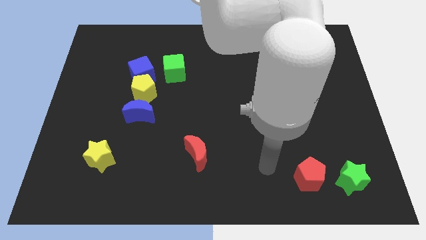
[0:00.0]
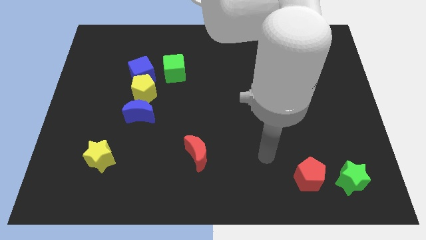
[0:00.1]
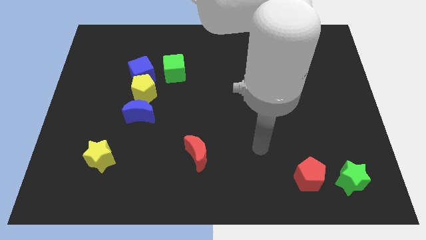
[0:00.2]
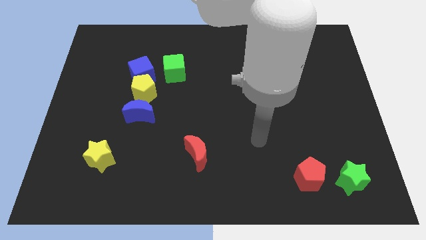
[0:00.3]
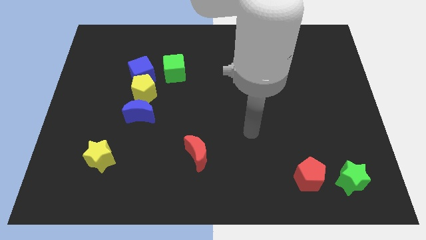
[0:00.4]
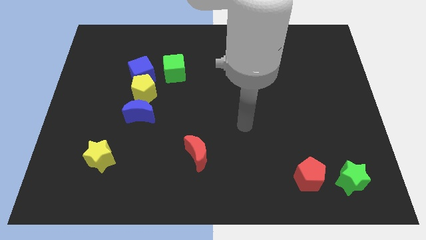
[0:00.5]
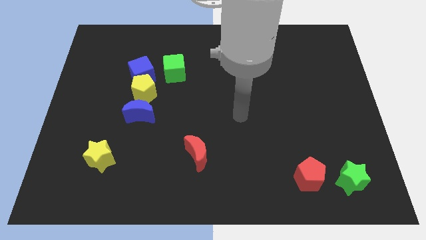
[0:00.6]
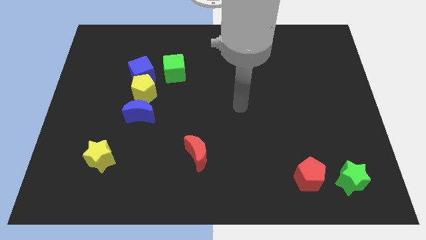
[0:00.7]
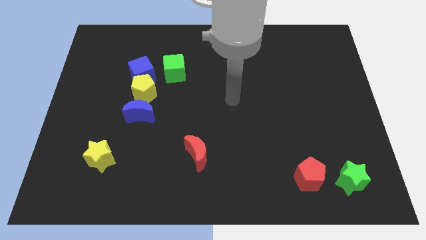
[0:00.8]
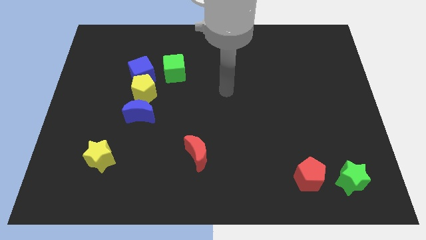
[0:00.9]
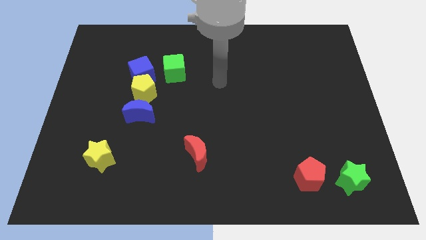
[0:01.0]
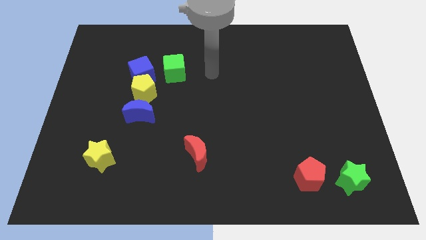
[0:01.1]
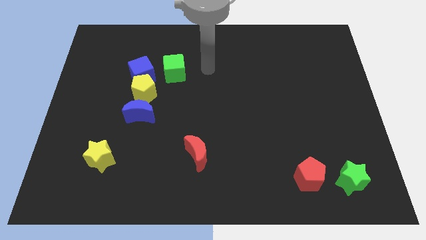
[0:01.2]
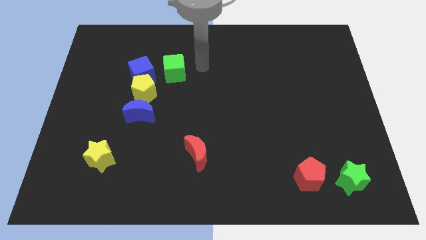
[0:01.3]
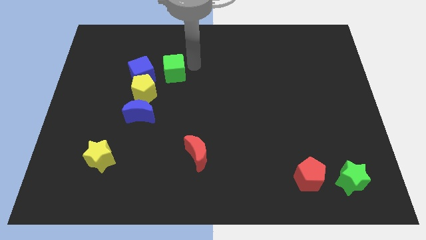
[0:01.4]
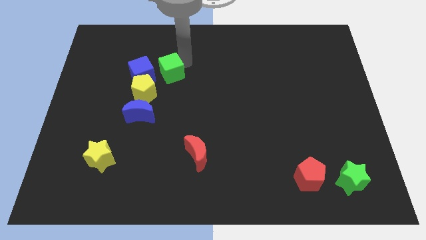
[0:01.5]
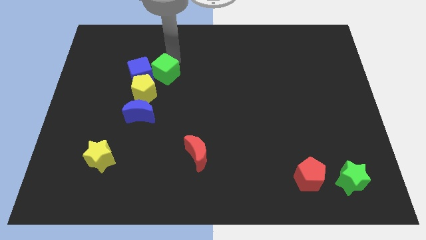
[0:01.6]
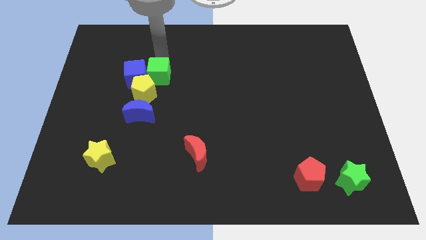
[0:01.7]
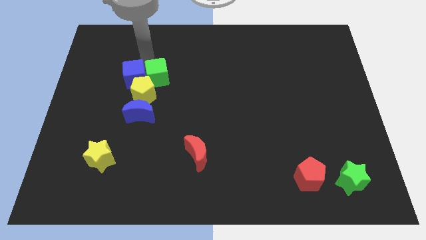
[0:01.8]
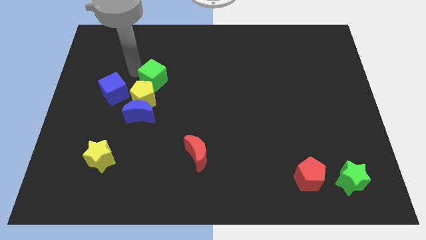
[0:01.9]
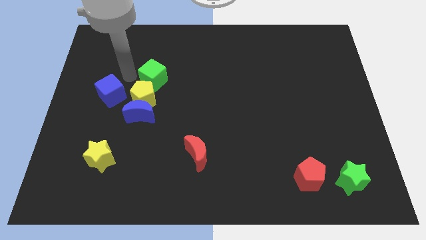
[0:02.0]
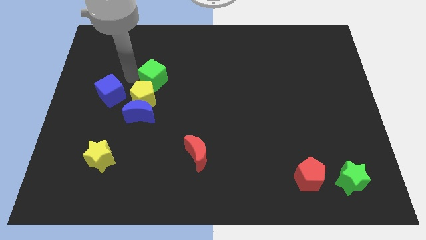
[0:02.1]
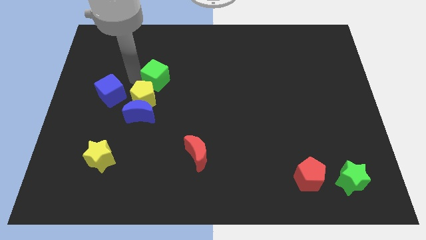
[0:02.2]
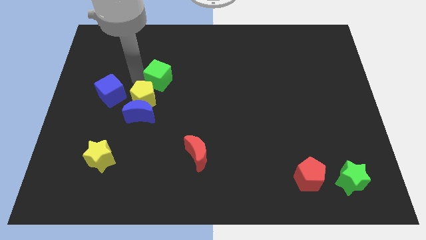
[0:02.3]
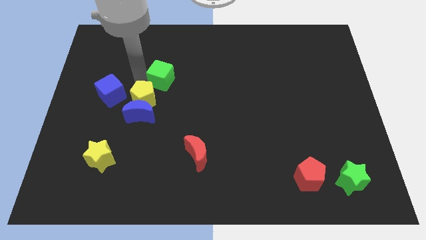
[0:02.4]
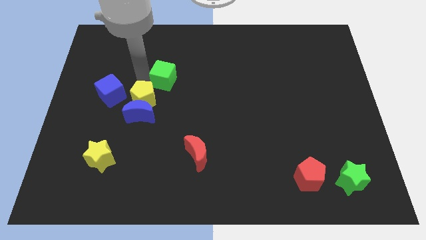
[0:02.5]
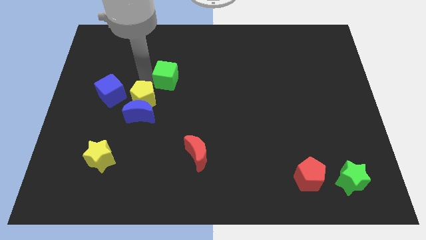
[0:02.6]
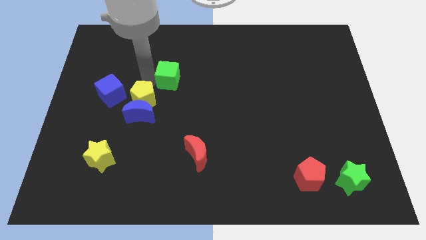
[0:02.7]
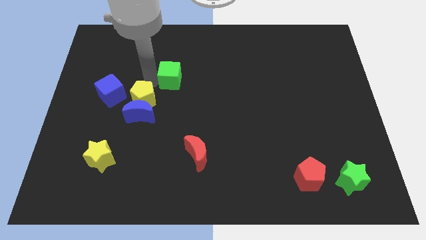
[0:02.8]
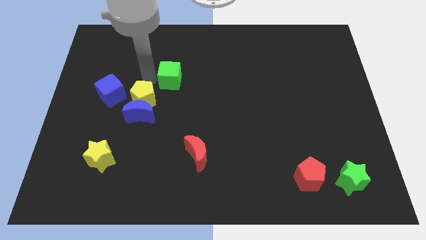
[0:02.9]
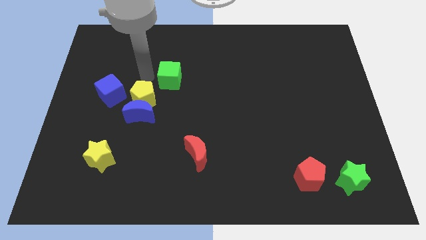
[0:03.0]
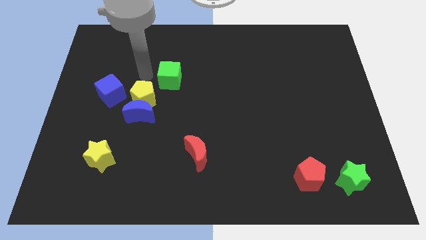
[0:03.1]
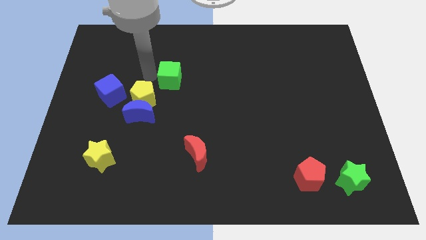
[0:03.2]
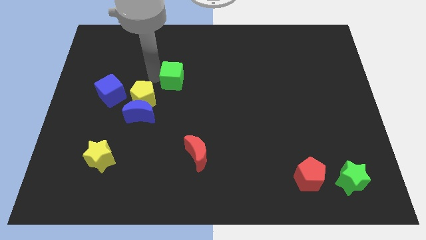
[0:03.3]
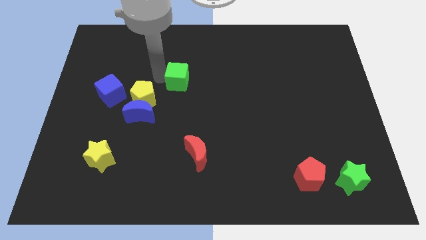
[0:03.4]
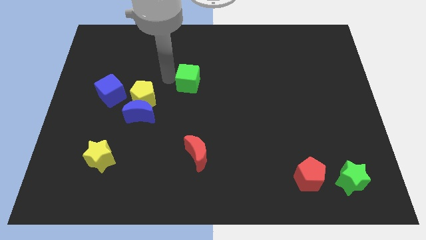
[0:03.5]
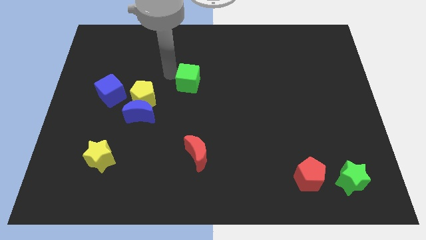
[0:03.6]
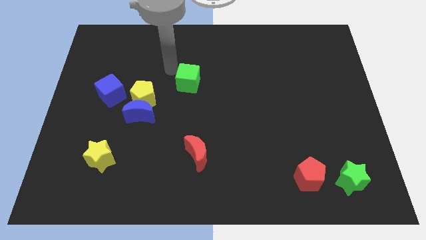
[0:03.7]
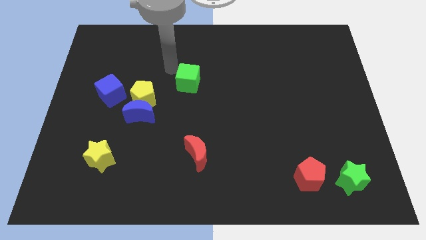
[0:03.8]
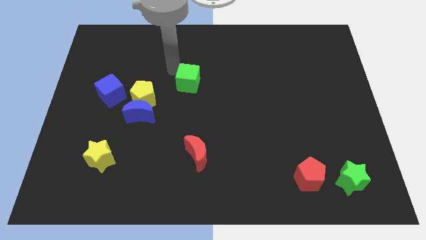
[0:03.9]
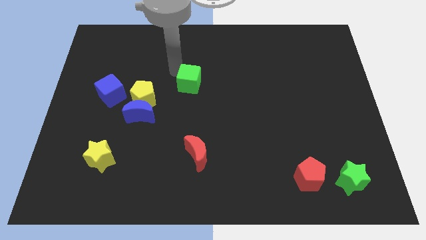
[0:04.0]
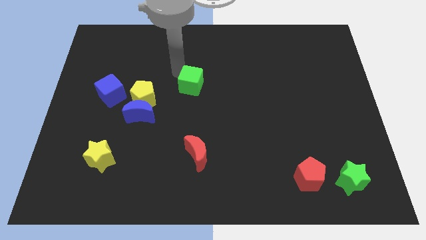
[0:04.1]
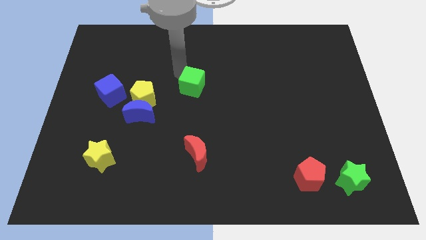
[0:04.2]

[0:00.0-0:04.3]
slightly move the green cube downwards and right

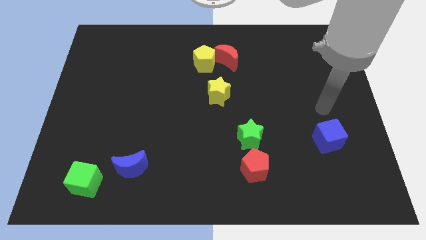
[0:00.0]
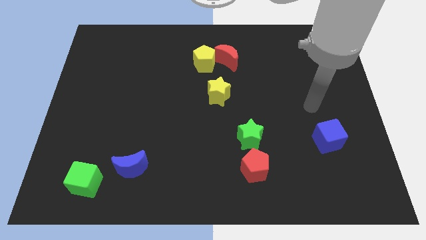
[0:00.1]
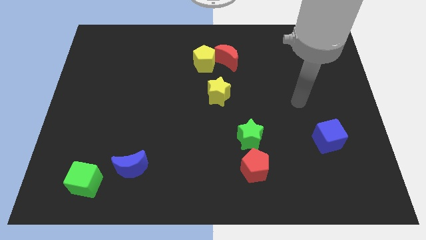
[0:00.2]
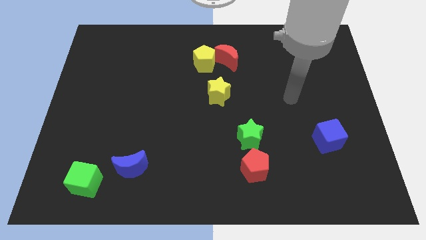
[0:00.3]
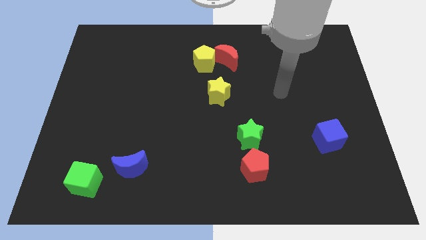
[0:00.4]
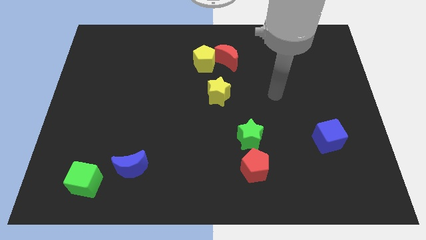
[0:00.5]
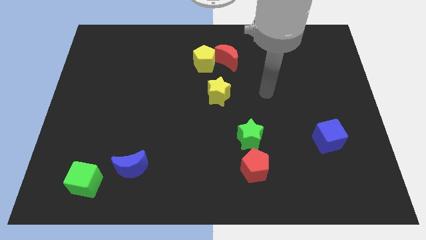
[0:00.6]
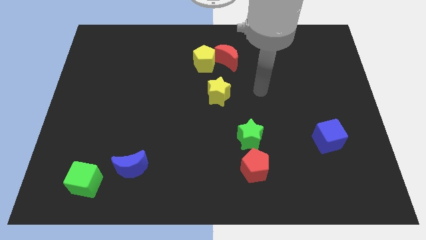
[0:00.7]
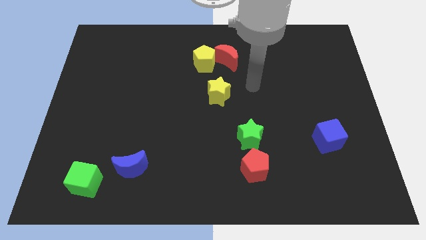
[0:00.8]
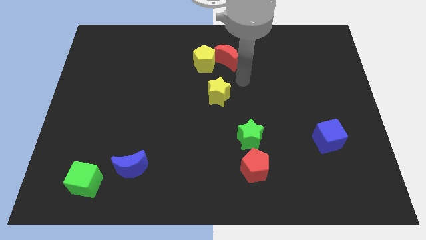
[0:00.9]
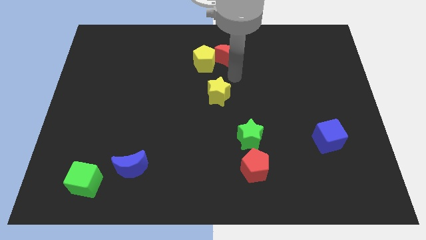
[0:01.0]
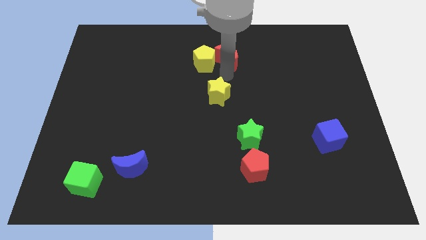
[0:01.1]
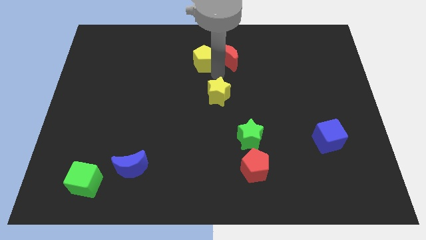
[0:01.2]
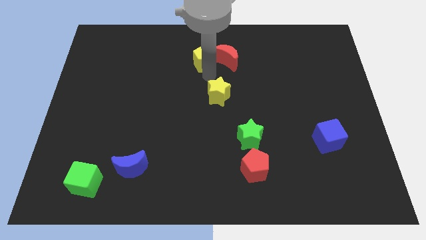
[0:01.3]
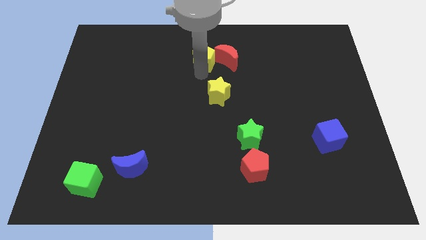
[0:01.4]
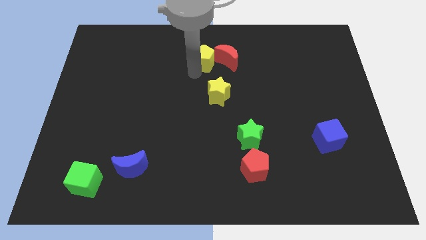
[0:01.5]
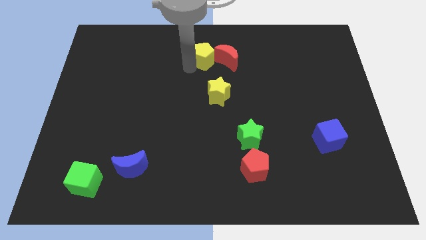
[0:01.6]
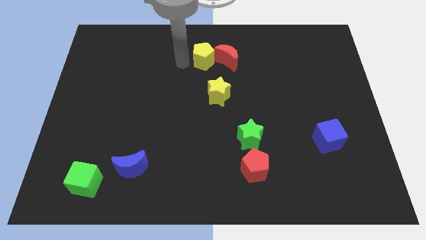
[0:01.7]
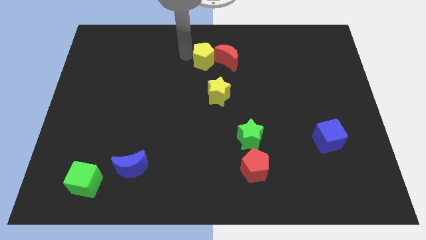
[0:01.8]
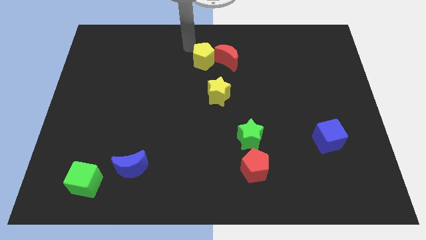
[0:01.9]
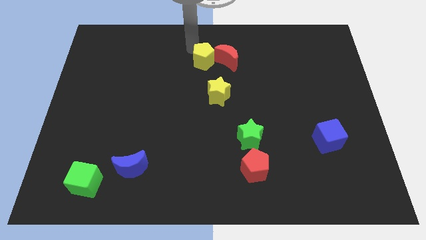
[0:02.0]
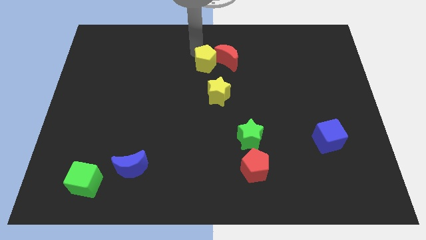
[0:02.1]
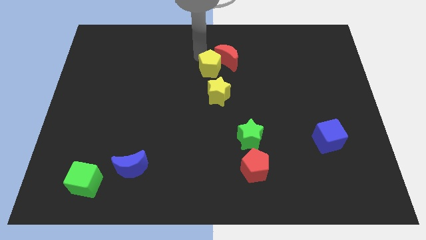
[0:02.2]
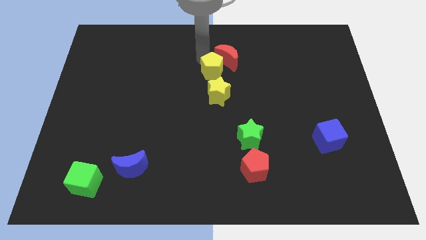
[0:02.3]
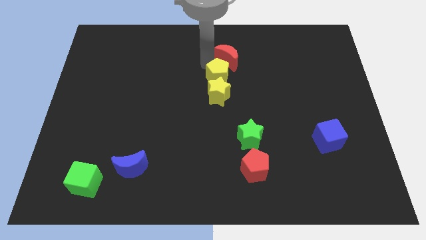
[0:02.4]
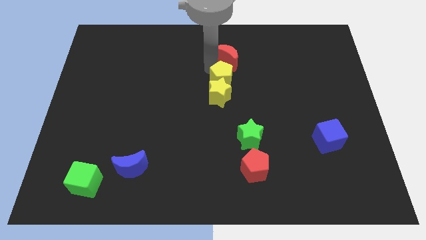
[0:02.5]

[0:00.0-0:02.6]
slightly move the yellow pentagon down and right diagonally

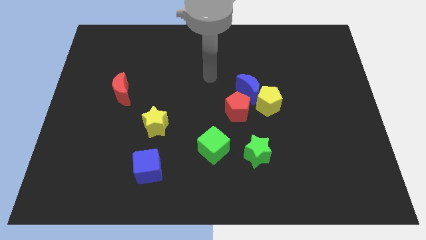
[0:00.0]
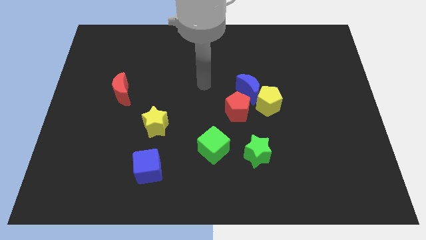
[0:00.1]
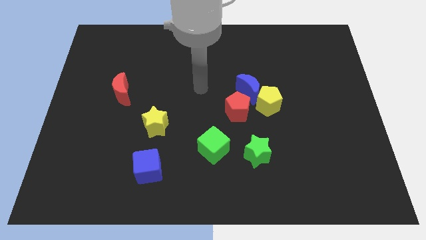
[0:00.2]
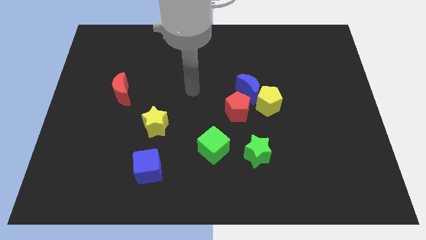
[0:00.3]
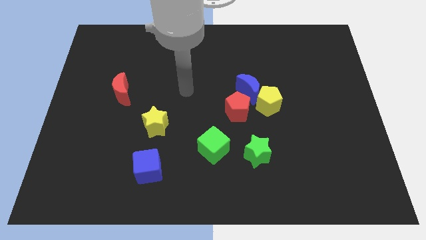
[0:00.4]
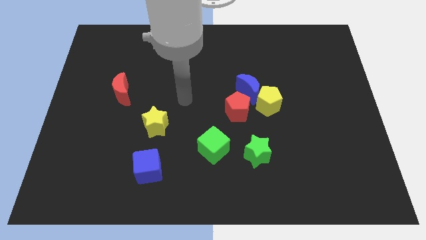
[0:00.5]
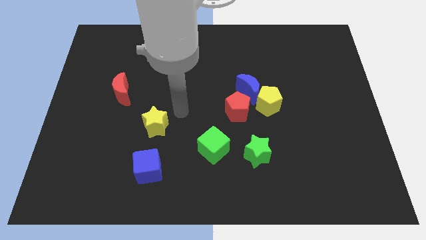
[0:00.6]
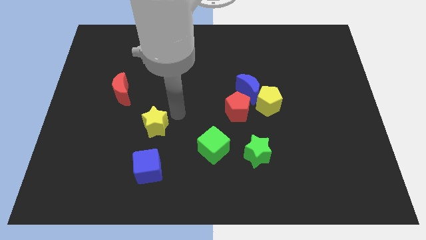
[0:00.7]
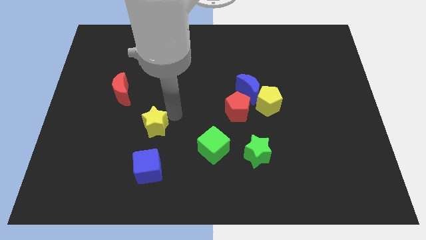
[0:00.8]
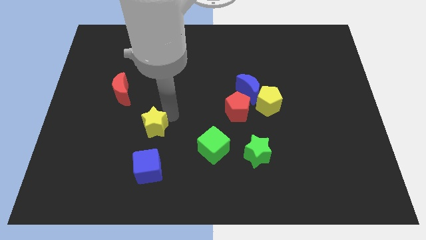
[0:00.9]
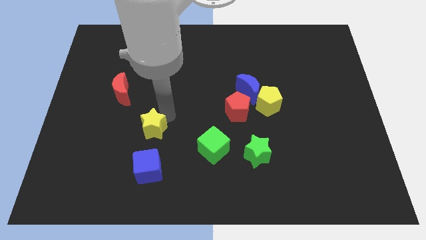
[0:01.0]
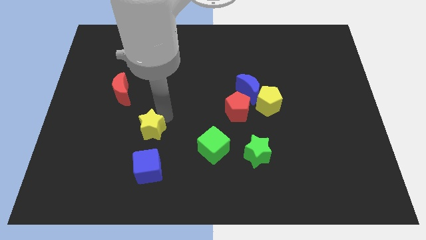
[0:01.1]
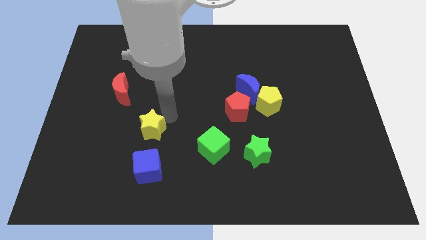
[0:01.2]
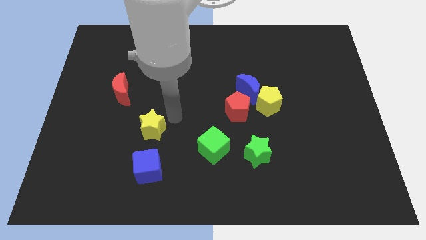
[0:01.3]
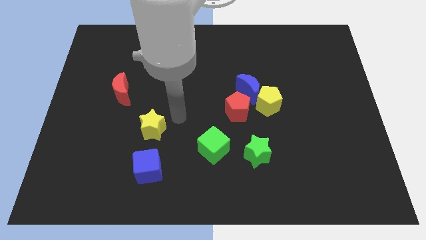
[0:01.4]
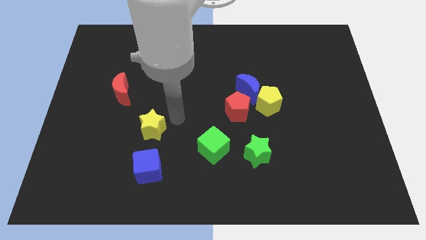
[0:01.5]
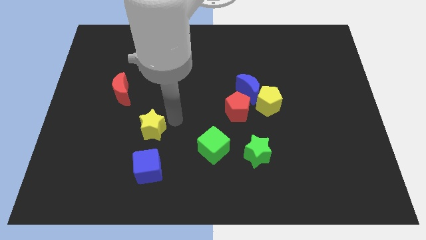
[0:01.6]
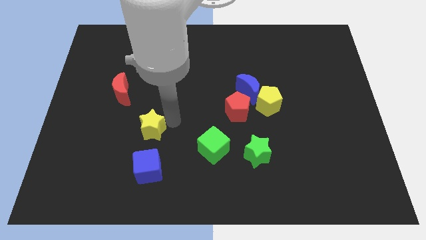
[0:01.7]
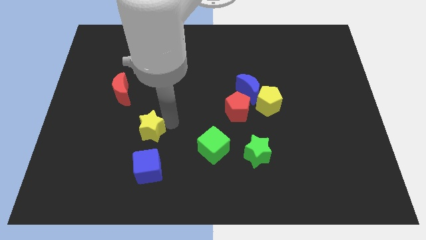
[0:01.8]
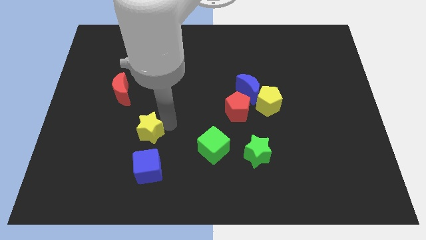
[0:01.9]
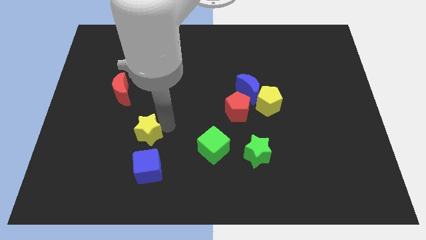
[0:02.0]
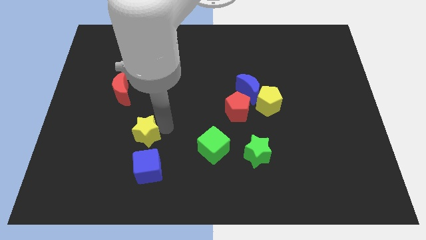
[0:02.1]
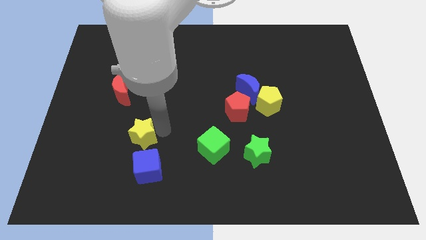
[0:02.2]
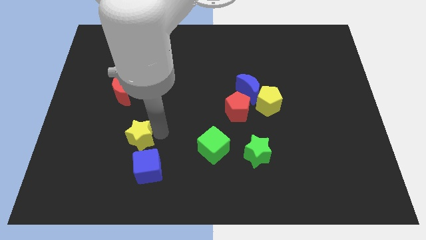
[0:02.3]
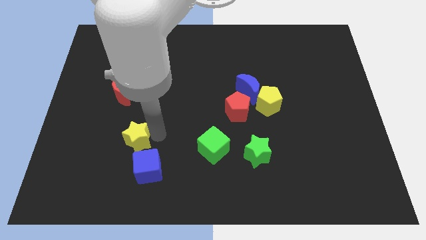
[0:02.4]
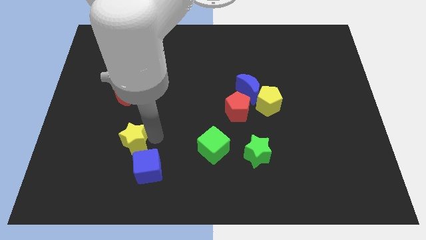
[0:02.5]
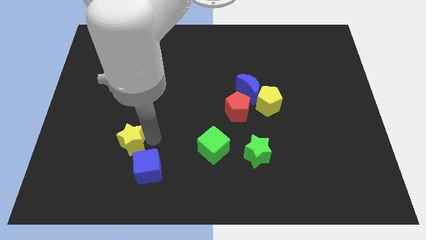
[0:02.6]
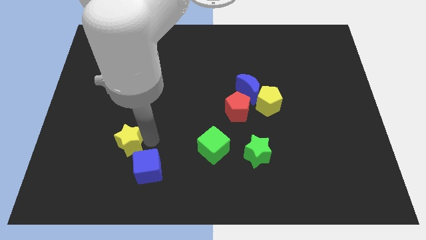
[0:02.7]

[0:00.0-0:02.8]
push the yellow star downwards and then left a bit
